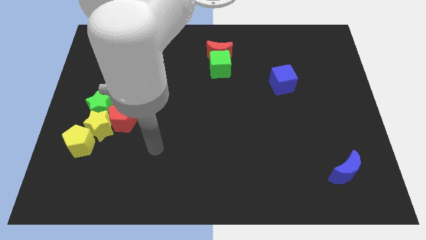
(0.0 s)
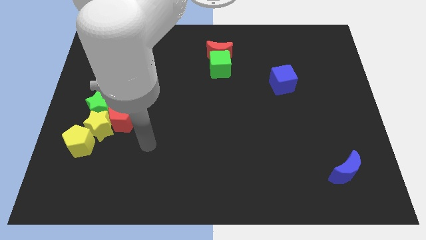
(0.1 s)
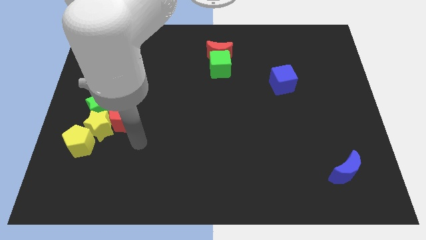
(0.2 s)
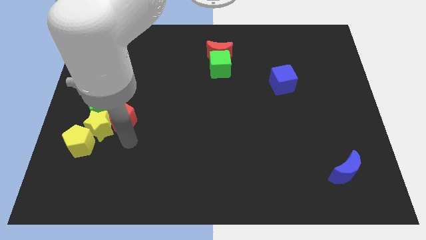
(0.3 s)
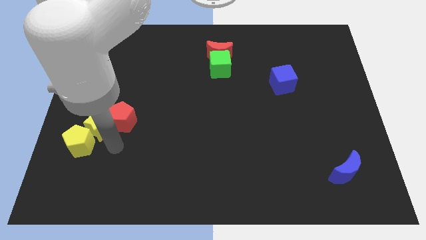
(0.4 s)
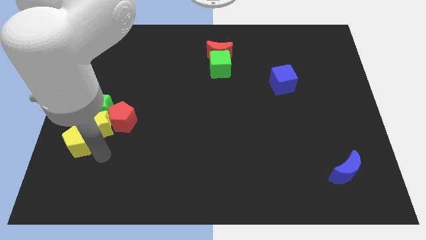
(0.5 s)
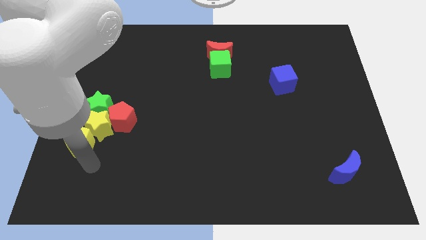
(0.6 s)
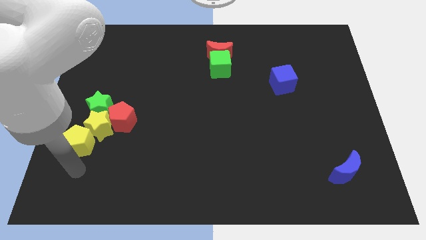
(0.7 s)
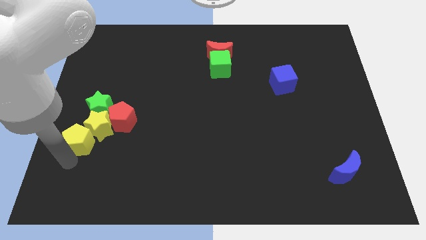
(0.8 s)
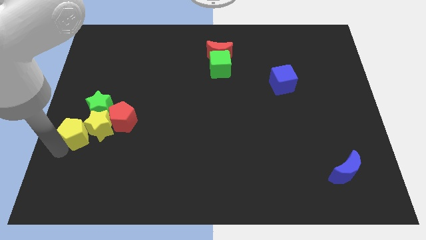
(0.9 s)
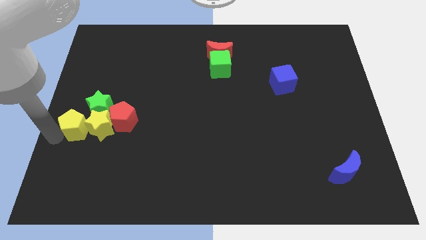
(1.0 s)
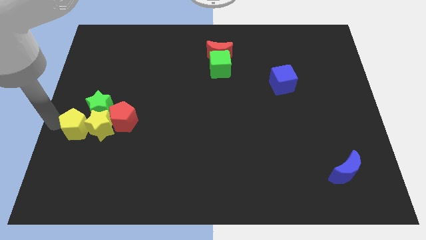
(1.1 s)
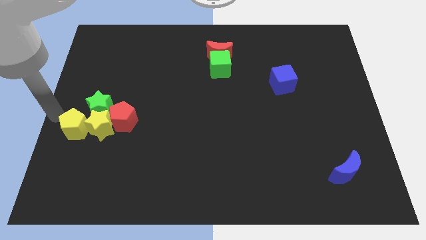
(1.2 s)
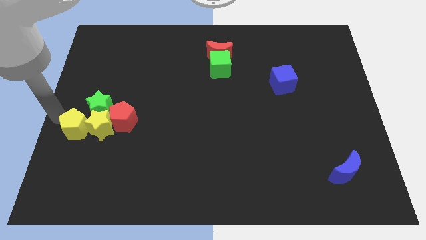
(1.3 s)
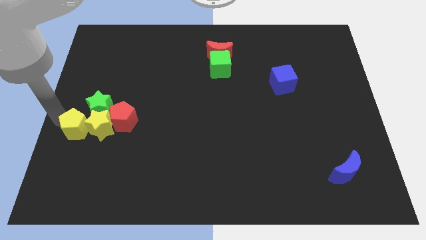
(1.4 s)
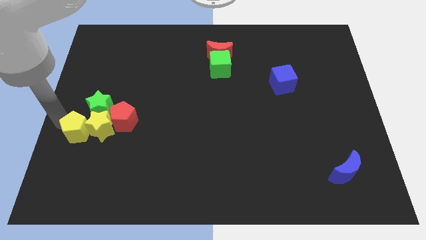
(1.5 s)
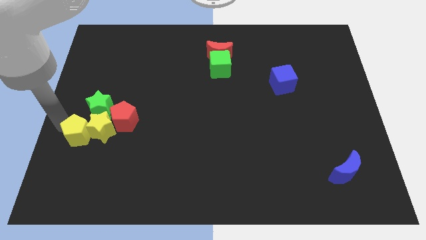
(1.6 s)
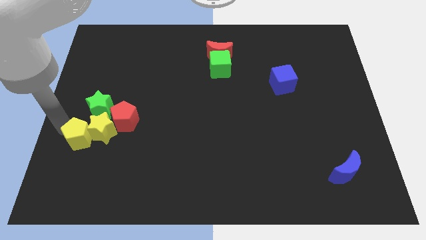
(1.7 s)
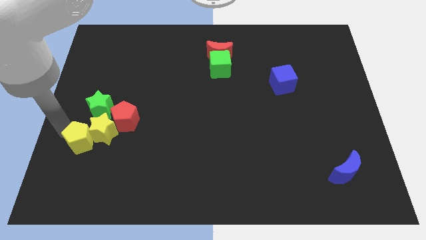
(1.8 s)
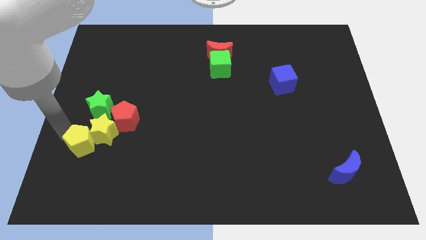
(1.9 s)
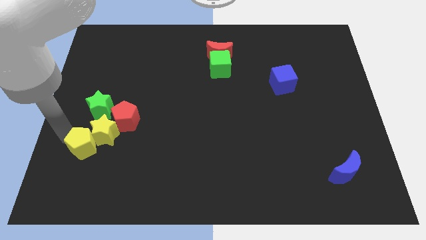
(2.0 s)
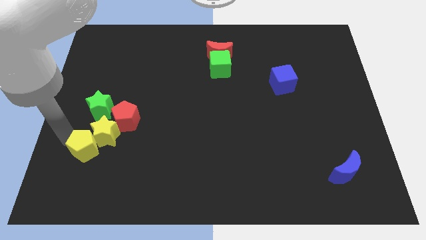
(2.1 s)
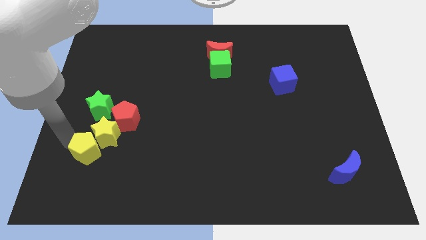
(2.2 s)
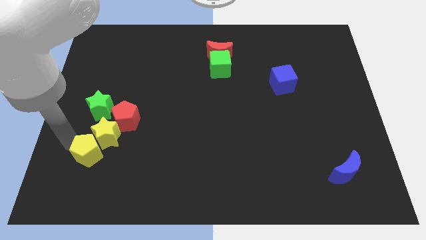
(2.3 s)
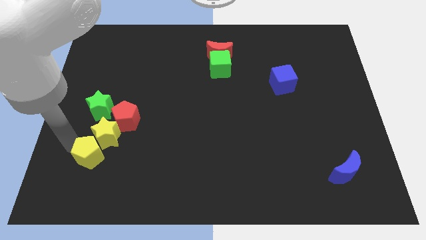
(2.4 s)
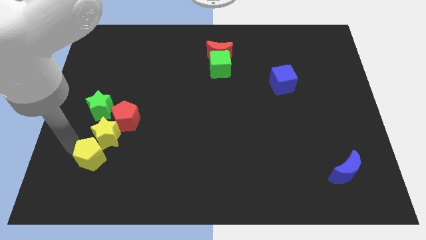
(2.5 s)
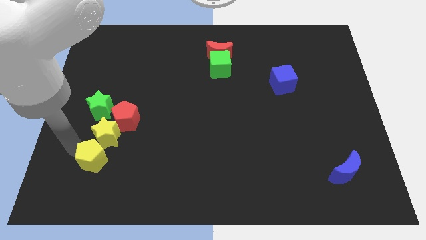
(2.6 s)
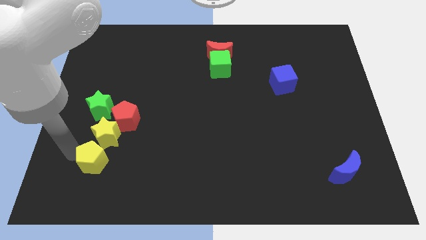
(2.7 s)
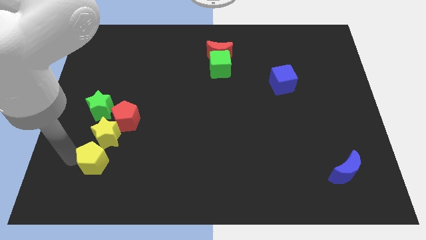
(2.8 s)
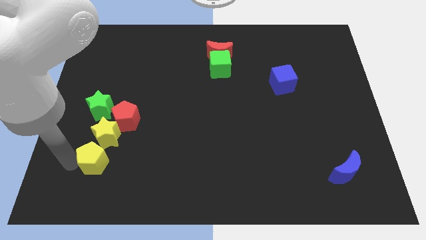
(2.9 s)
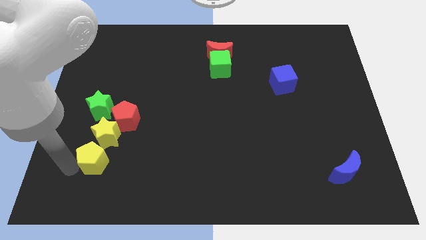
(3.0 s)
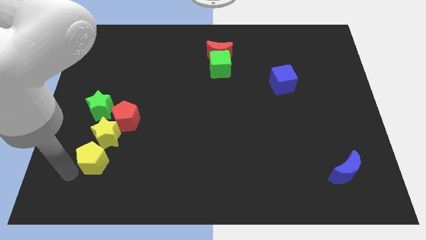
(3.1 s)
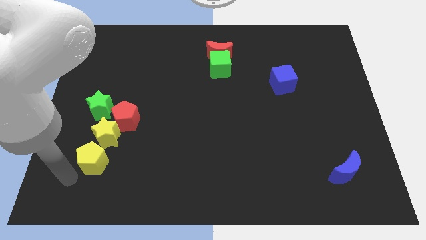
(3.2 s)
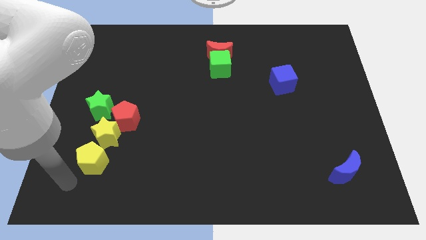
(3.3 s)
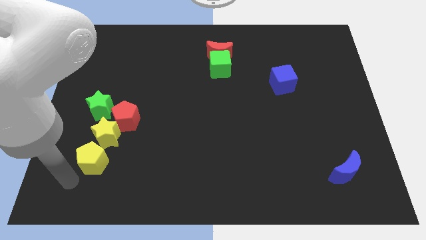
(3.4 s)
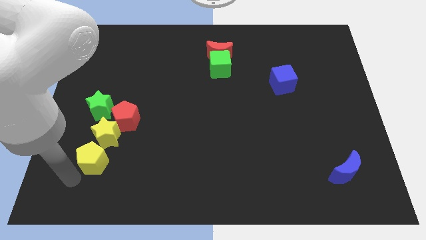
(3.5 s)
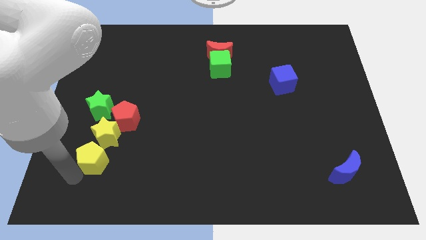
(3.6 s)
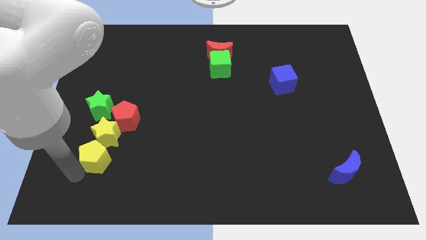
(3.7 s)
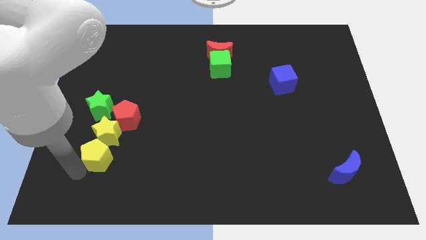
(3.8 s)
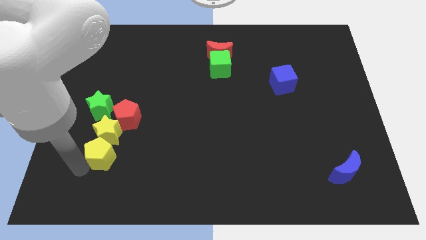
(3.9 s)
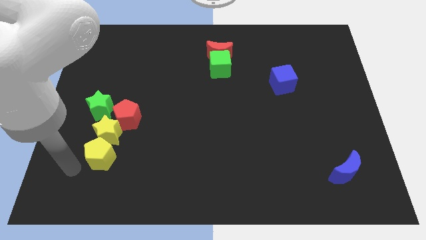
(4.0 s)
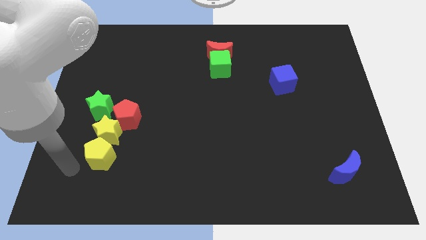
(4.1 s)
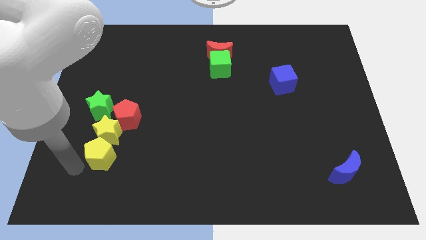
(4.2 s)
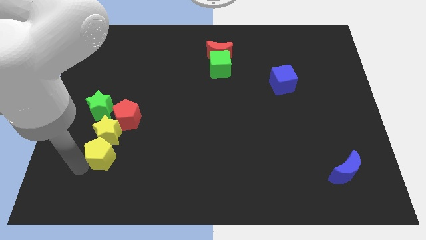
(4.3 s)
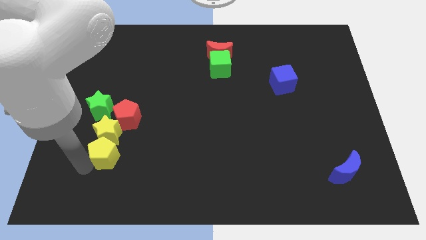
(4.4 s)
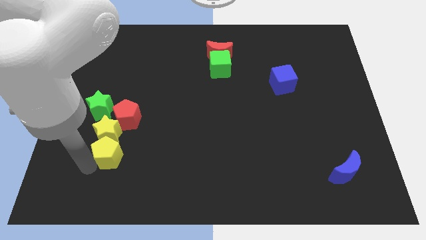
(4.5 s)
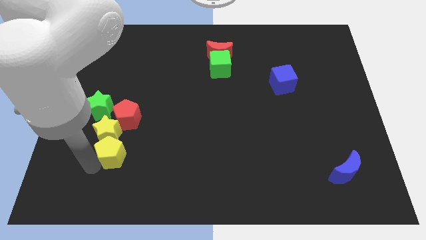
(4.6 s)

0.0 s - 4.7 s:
move the yellow pentagon a bit to the right

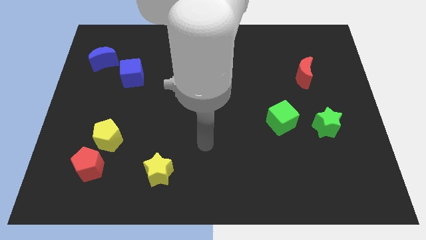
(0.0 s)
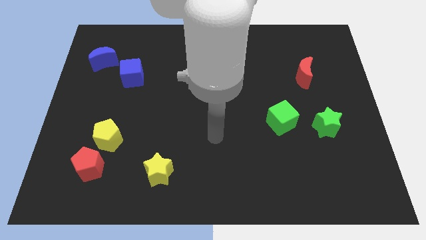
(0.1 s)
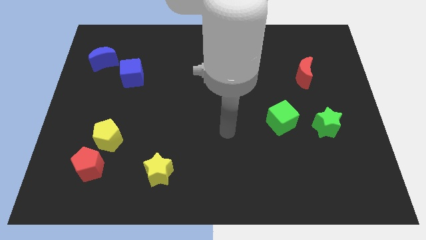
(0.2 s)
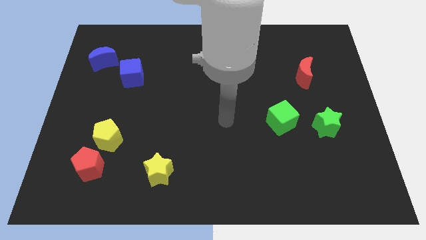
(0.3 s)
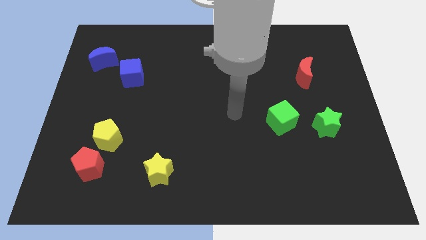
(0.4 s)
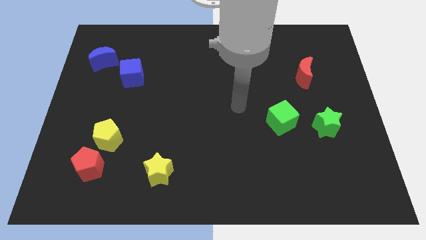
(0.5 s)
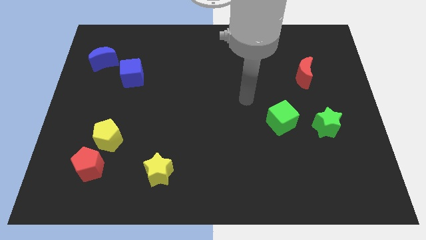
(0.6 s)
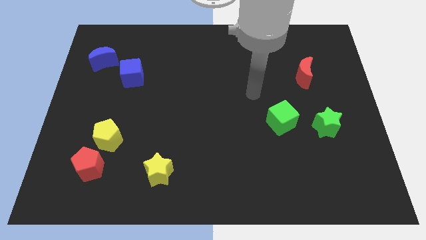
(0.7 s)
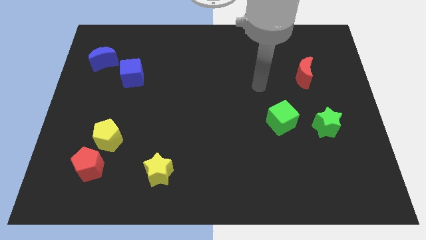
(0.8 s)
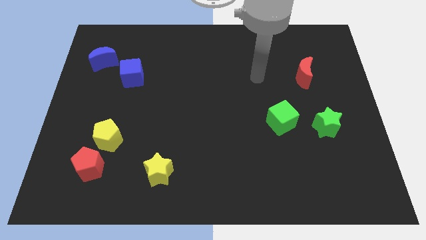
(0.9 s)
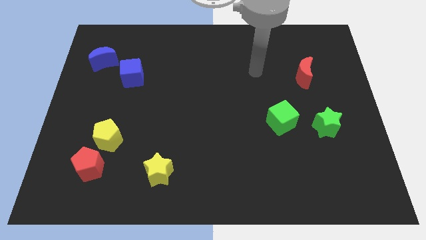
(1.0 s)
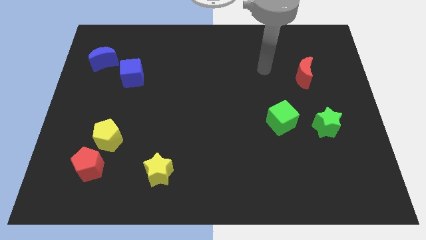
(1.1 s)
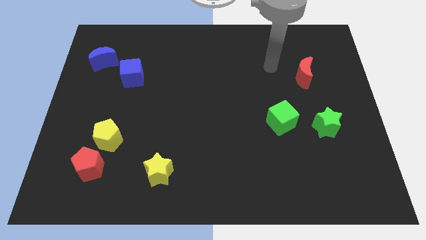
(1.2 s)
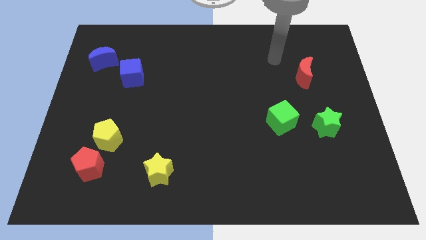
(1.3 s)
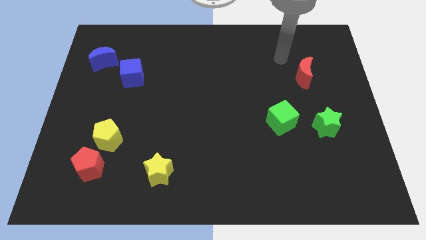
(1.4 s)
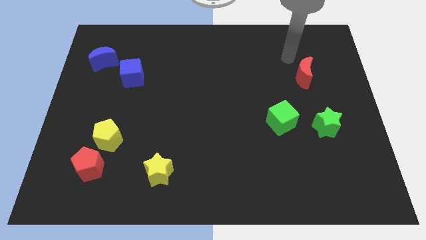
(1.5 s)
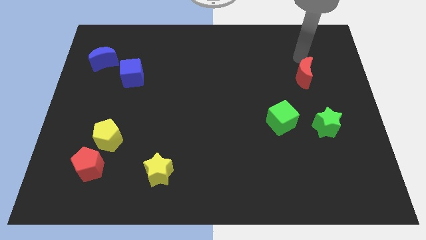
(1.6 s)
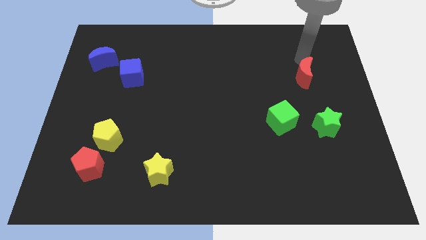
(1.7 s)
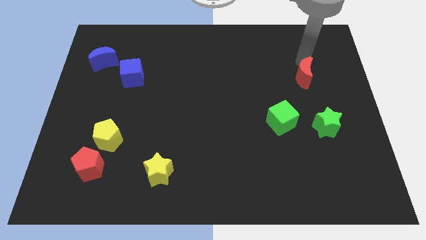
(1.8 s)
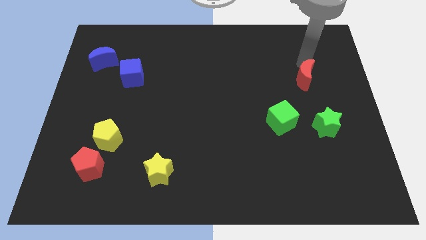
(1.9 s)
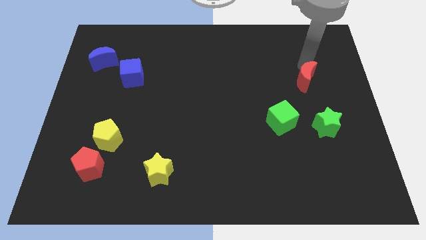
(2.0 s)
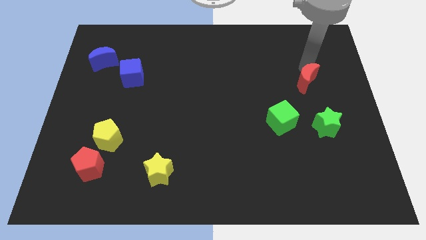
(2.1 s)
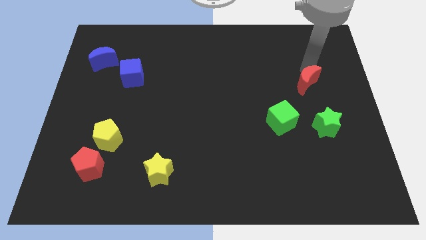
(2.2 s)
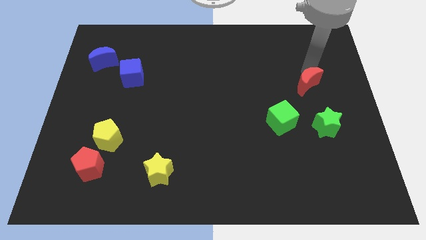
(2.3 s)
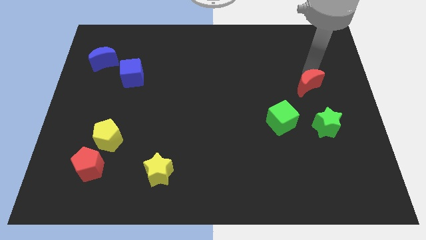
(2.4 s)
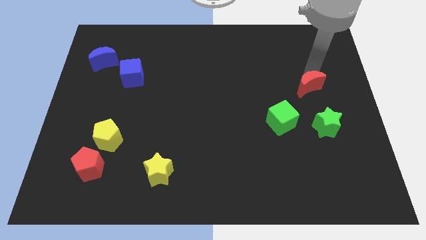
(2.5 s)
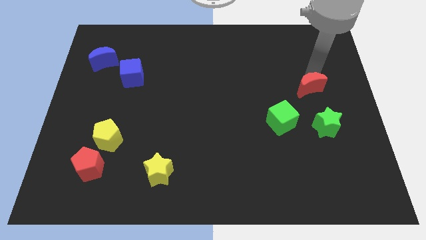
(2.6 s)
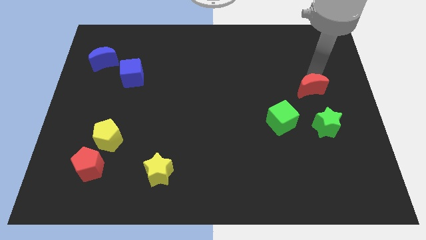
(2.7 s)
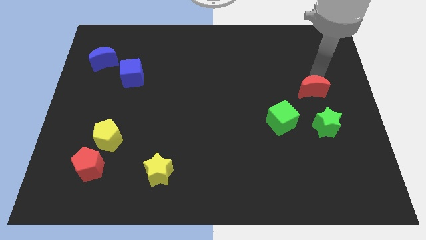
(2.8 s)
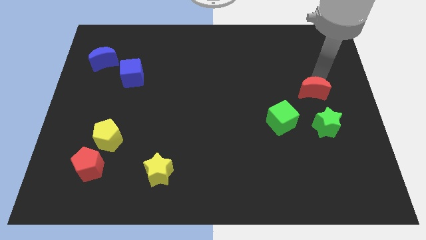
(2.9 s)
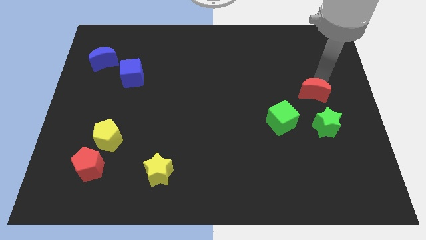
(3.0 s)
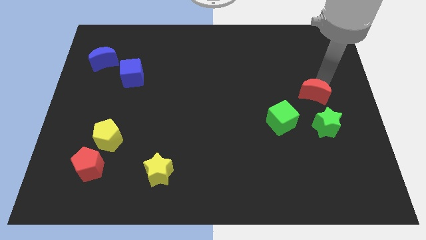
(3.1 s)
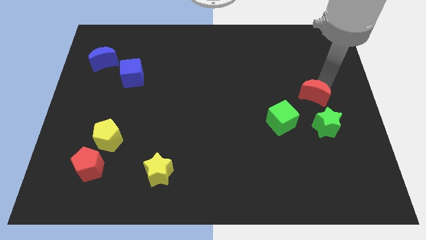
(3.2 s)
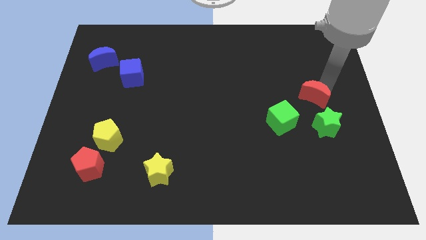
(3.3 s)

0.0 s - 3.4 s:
push the red moon a little bit downwards

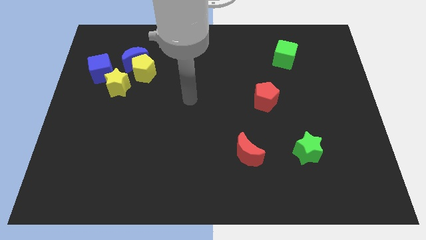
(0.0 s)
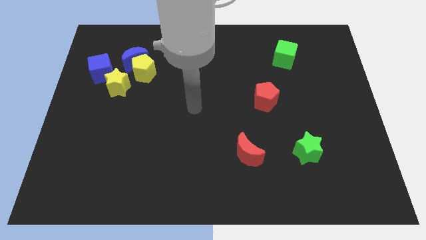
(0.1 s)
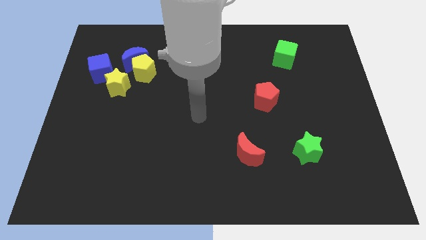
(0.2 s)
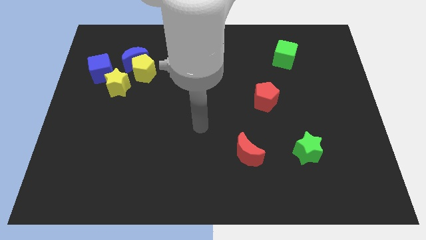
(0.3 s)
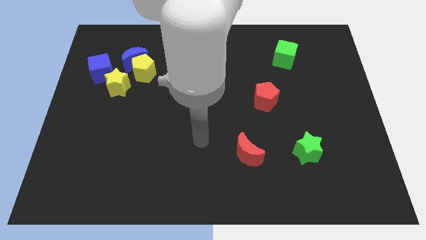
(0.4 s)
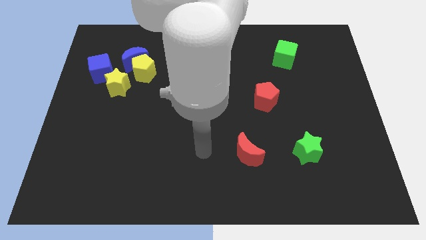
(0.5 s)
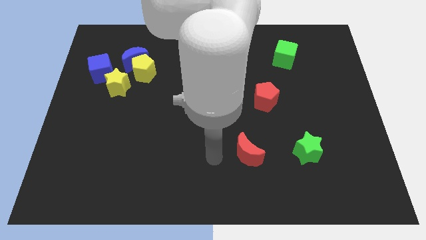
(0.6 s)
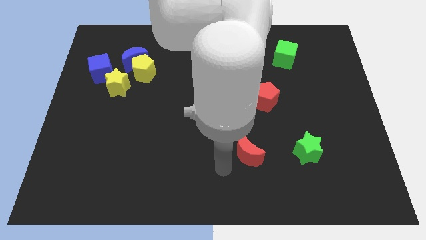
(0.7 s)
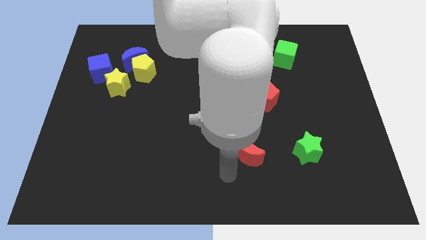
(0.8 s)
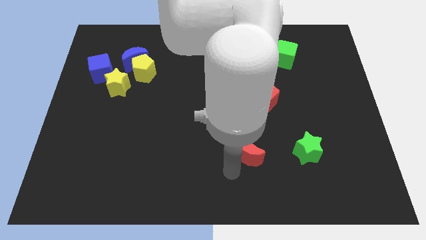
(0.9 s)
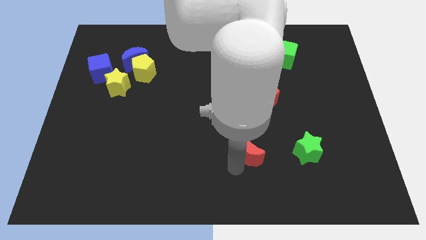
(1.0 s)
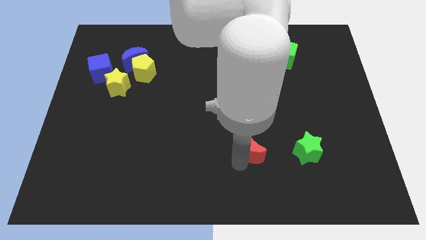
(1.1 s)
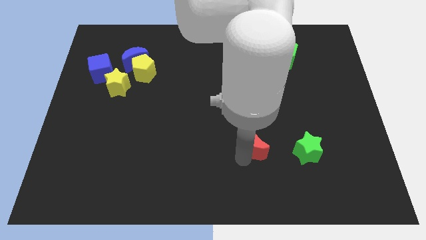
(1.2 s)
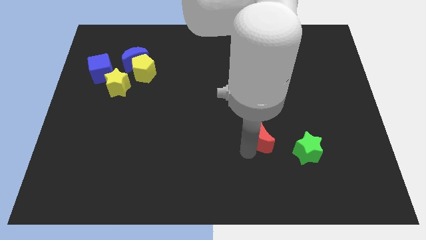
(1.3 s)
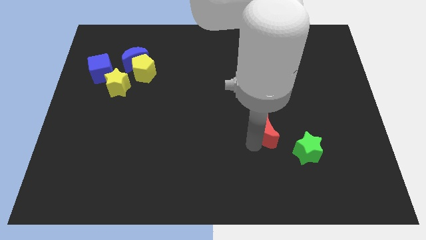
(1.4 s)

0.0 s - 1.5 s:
push the red moon up and right a little bit
